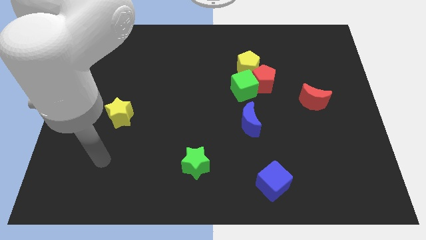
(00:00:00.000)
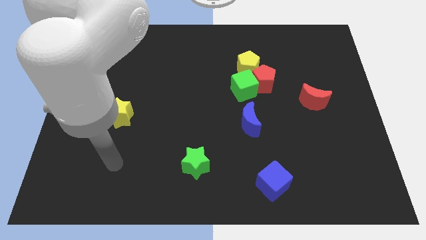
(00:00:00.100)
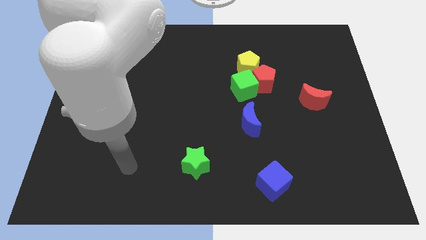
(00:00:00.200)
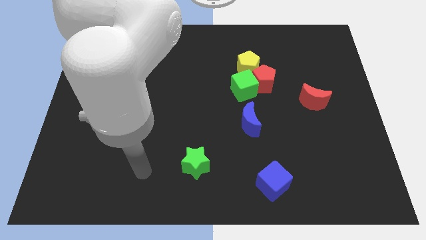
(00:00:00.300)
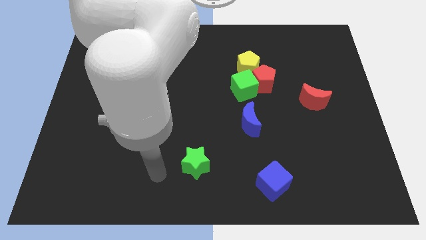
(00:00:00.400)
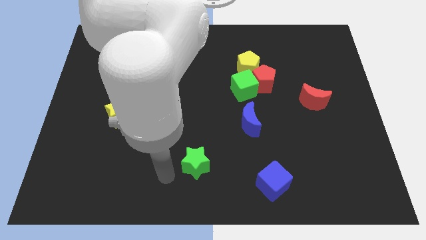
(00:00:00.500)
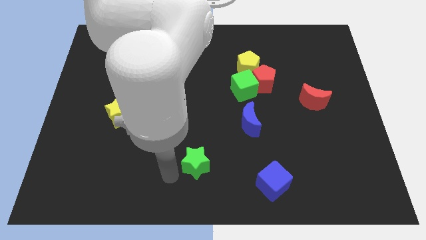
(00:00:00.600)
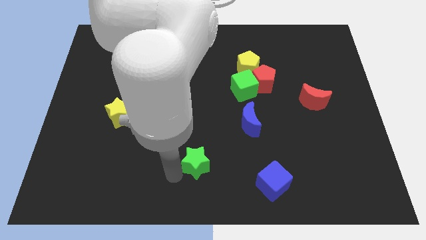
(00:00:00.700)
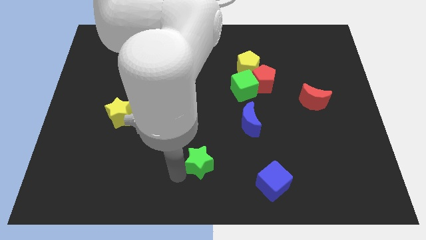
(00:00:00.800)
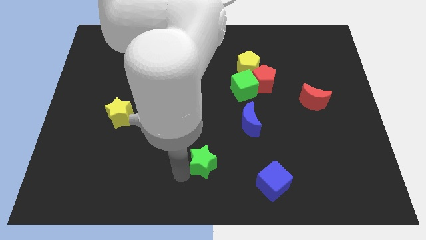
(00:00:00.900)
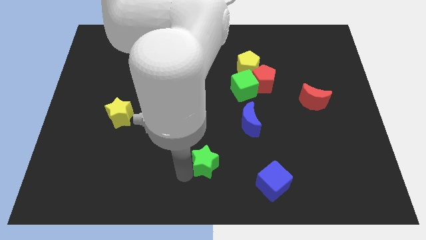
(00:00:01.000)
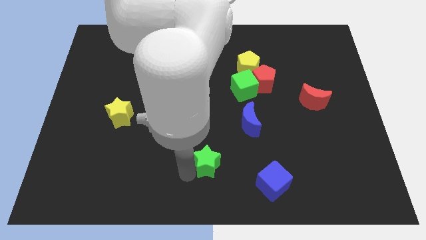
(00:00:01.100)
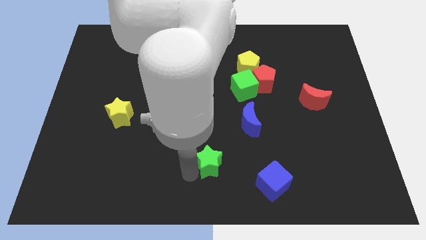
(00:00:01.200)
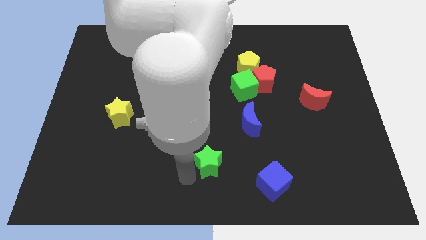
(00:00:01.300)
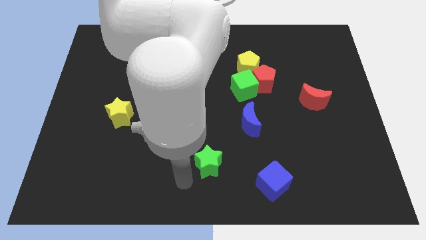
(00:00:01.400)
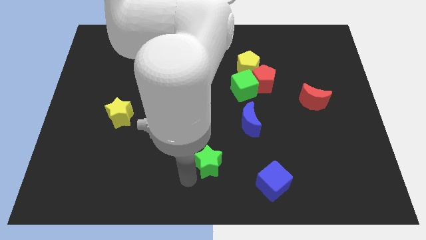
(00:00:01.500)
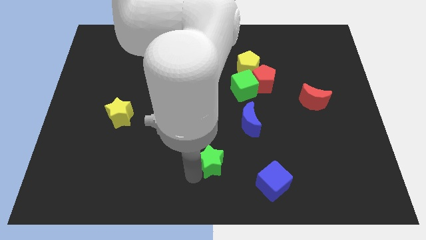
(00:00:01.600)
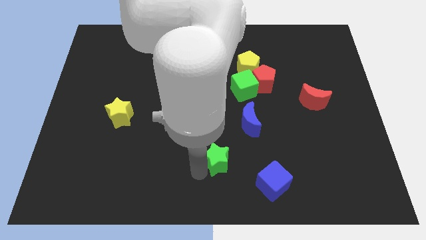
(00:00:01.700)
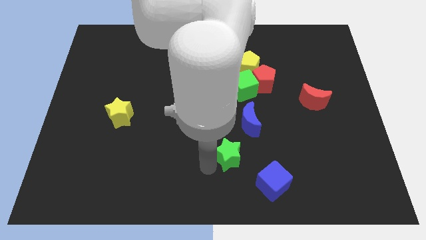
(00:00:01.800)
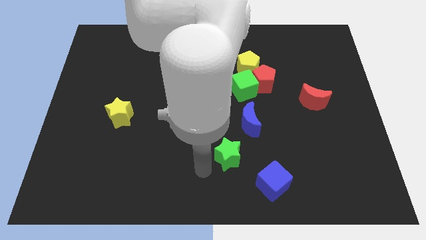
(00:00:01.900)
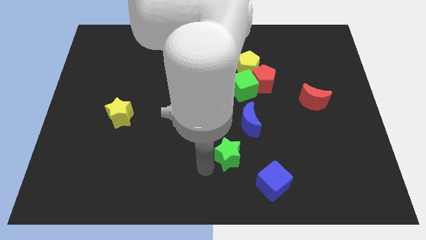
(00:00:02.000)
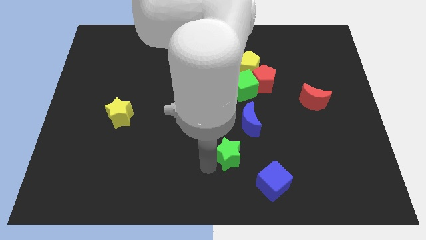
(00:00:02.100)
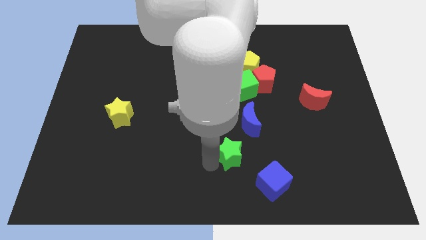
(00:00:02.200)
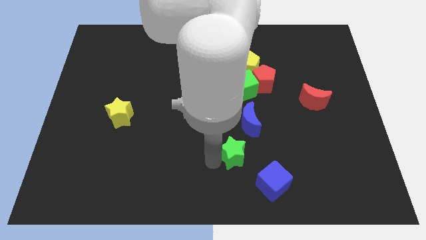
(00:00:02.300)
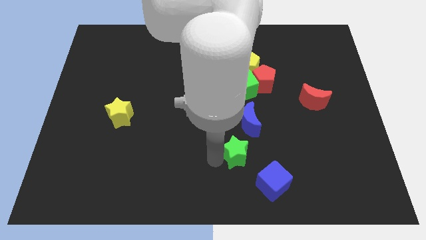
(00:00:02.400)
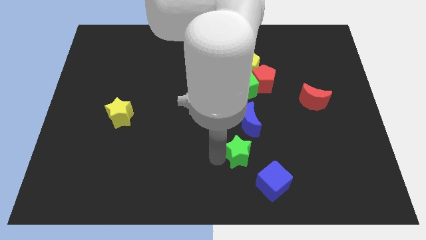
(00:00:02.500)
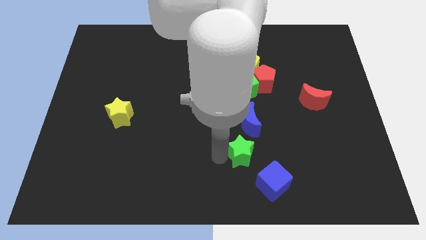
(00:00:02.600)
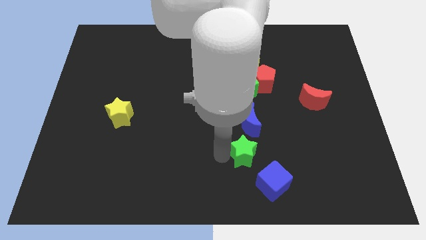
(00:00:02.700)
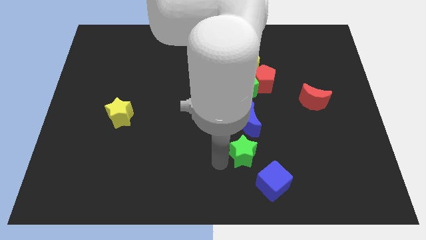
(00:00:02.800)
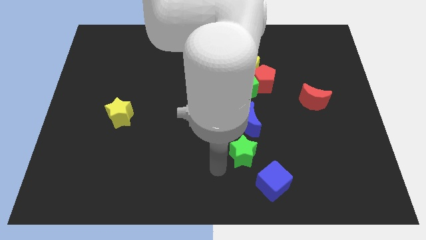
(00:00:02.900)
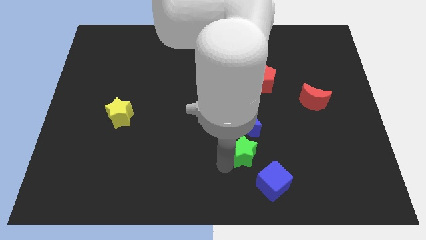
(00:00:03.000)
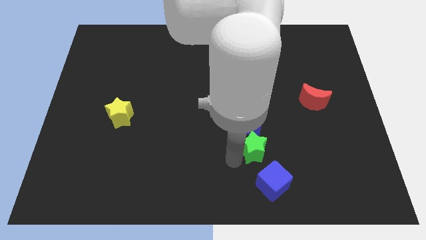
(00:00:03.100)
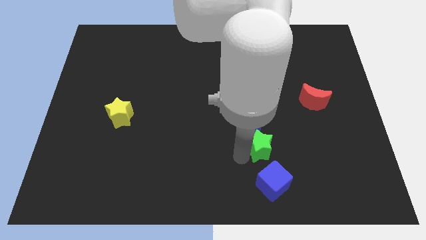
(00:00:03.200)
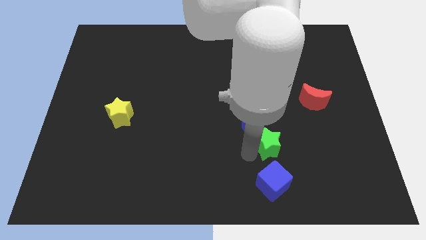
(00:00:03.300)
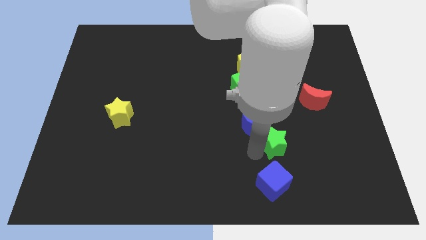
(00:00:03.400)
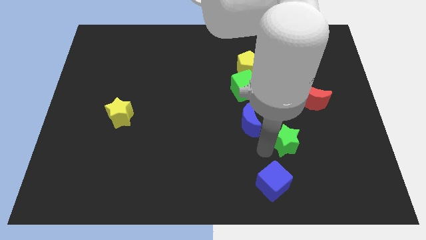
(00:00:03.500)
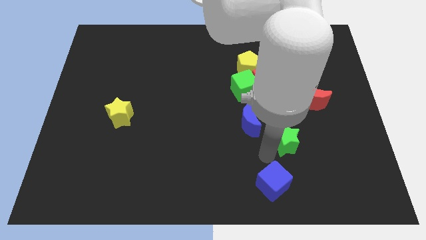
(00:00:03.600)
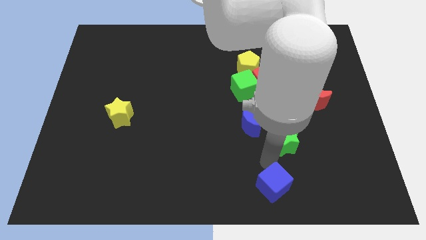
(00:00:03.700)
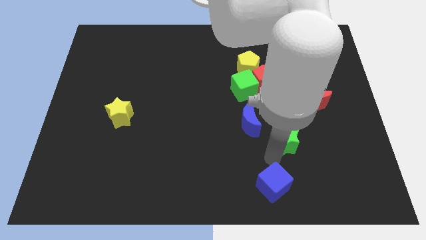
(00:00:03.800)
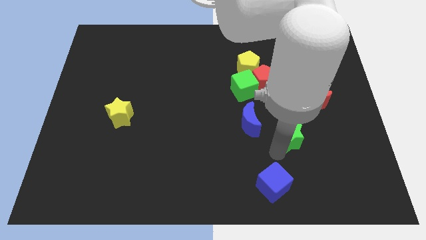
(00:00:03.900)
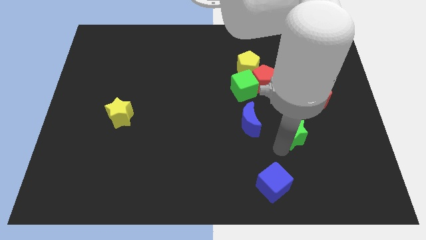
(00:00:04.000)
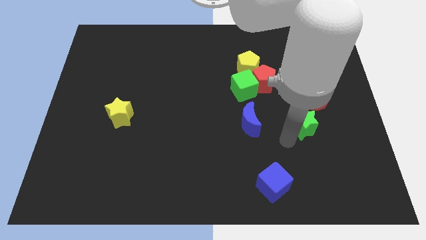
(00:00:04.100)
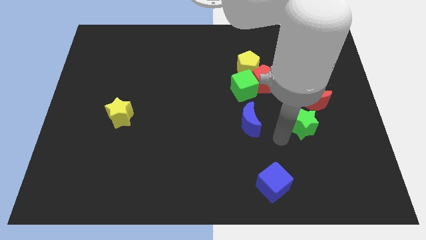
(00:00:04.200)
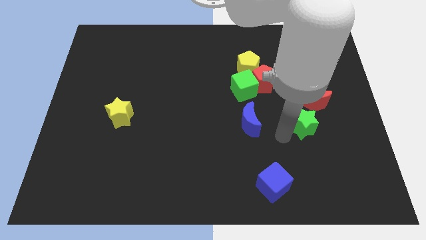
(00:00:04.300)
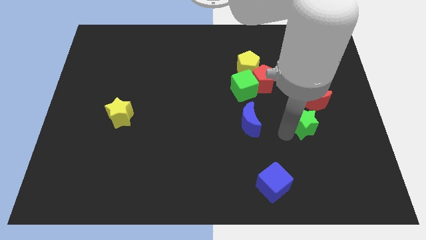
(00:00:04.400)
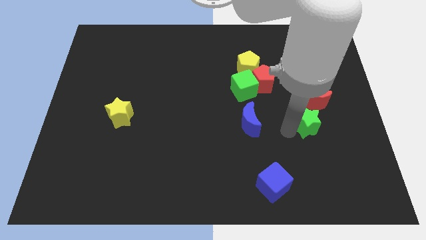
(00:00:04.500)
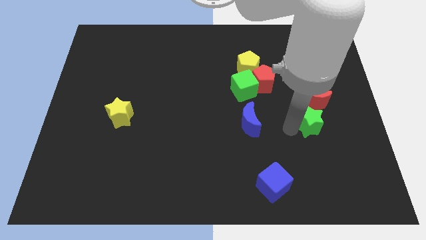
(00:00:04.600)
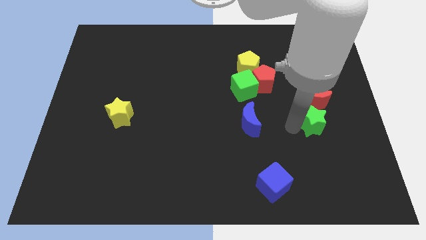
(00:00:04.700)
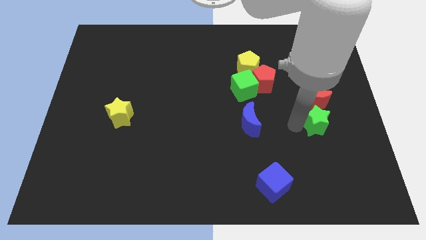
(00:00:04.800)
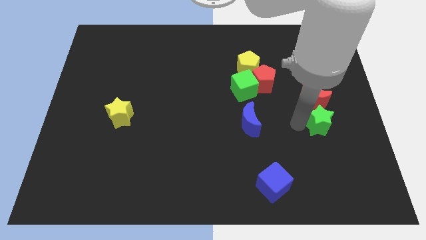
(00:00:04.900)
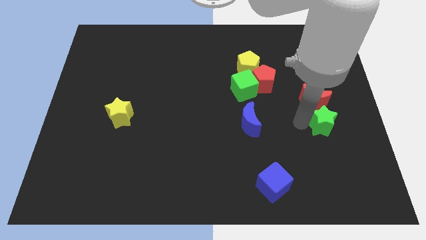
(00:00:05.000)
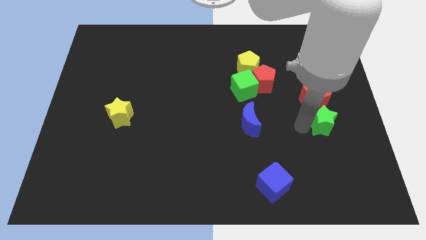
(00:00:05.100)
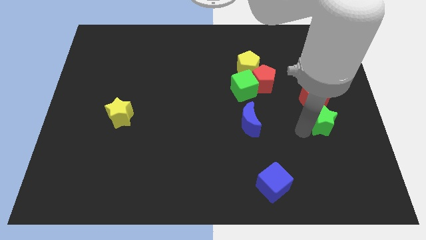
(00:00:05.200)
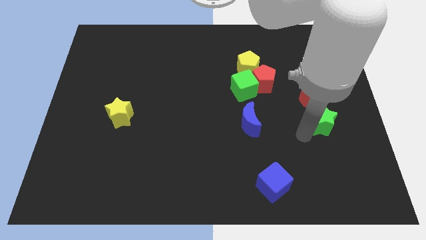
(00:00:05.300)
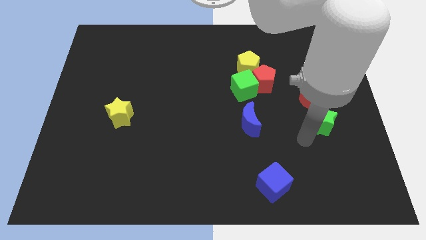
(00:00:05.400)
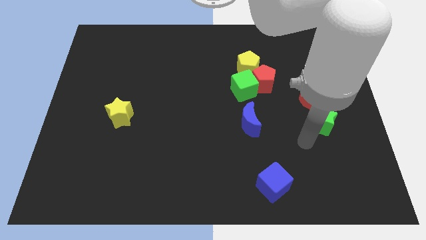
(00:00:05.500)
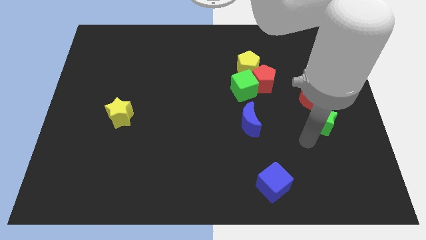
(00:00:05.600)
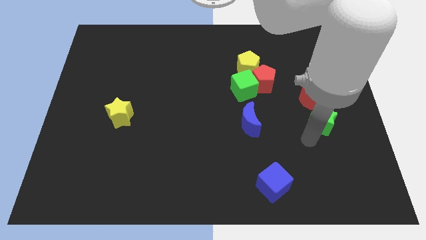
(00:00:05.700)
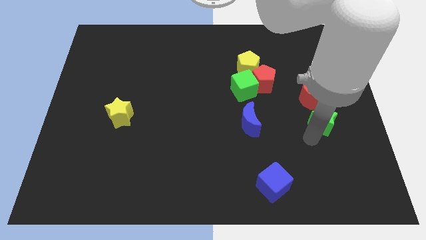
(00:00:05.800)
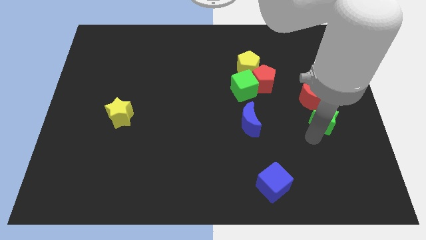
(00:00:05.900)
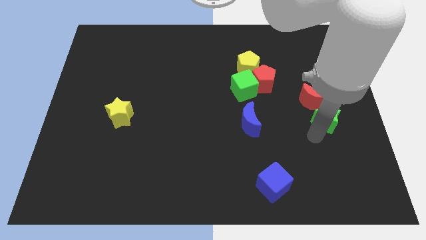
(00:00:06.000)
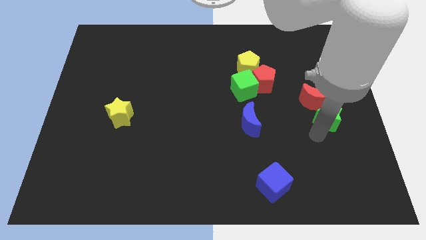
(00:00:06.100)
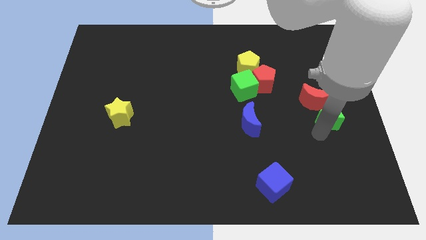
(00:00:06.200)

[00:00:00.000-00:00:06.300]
put the green star to the right side of the board
